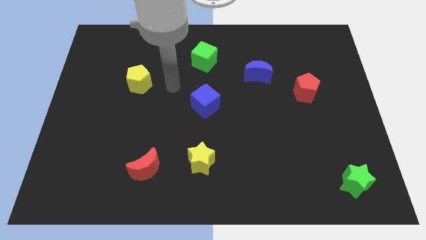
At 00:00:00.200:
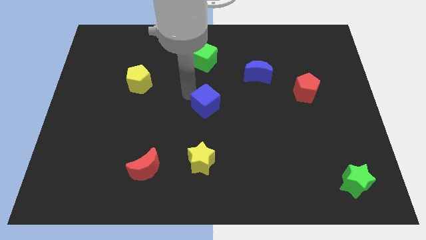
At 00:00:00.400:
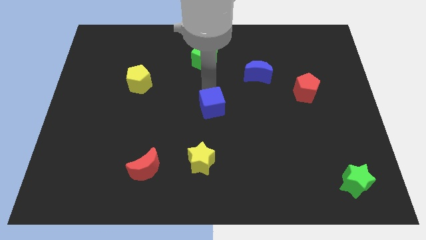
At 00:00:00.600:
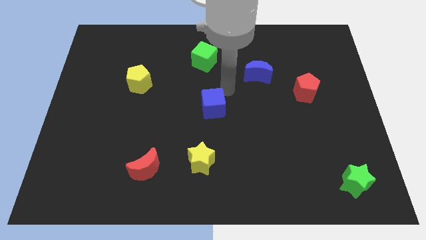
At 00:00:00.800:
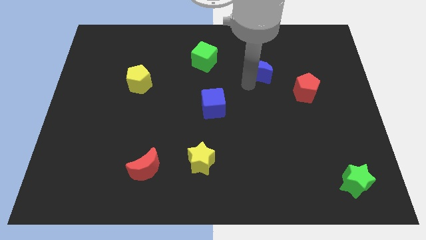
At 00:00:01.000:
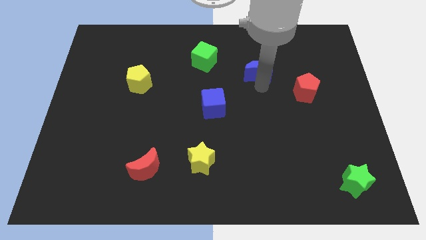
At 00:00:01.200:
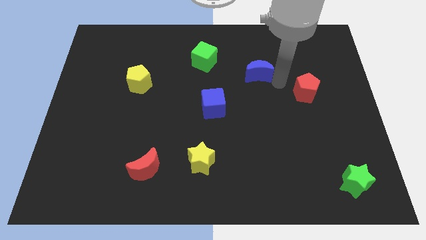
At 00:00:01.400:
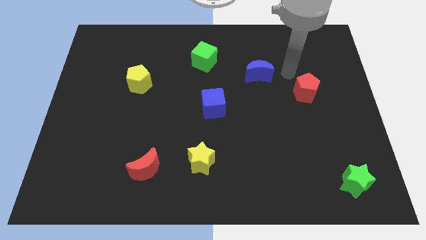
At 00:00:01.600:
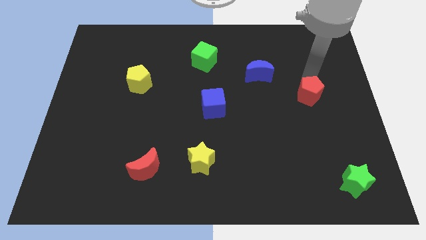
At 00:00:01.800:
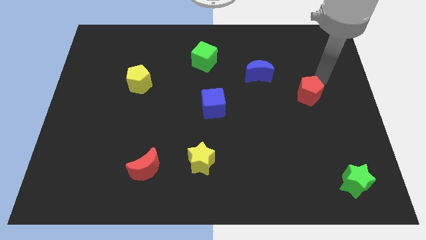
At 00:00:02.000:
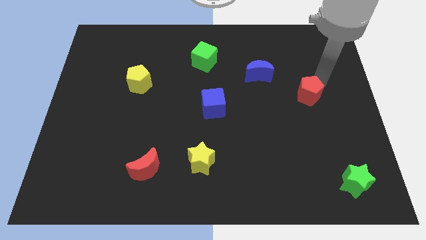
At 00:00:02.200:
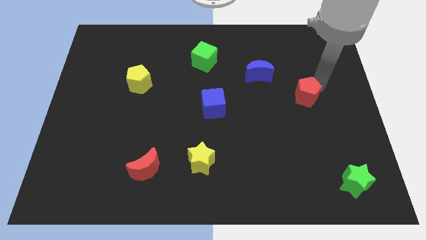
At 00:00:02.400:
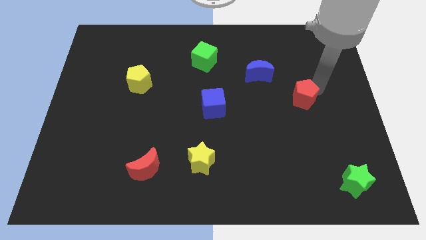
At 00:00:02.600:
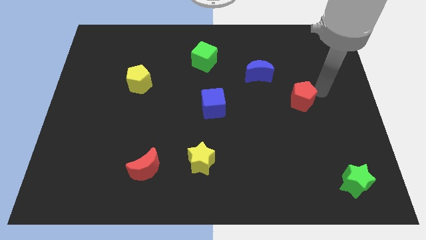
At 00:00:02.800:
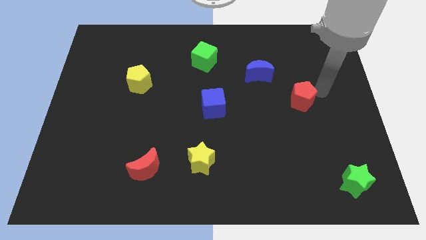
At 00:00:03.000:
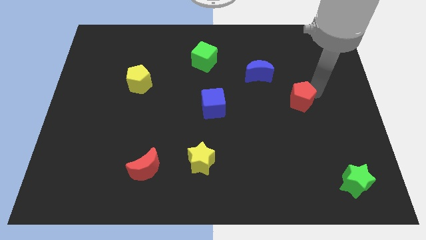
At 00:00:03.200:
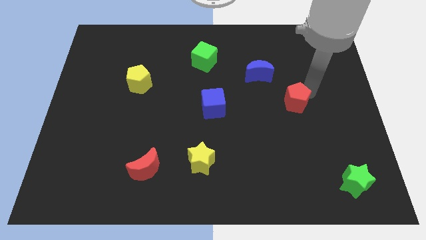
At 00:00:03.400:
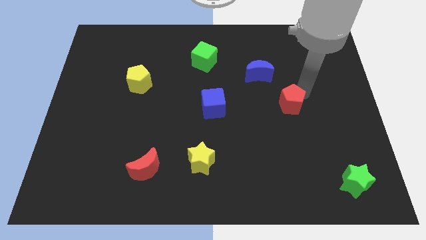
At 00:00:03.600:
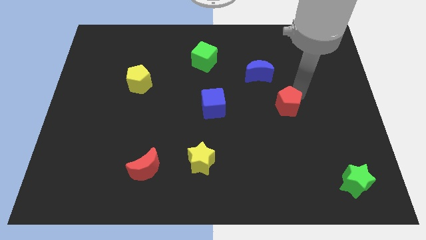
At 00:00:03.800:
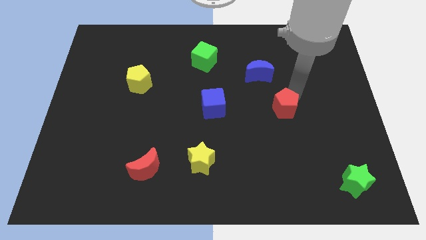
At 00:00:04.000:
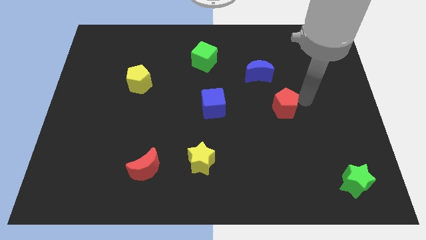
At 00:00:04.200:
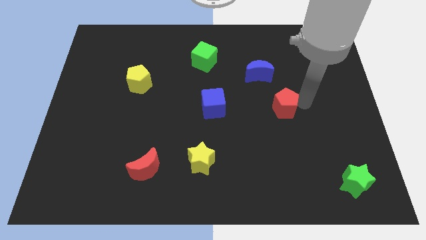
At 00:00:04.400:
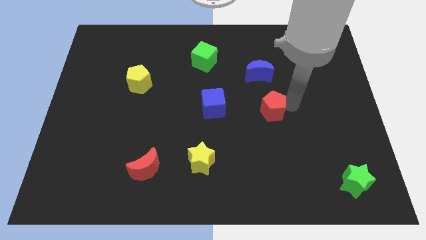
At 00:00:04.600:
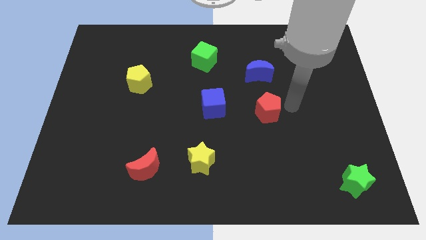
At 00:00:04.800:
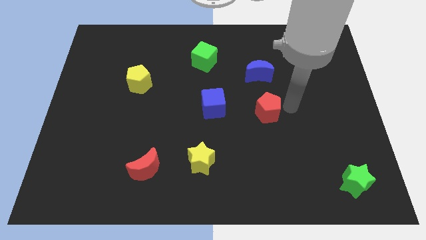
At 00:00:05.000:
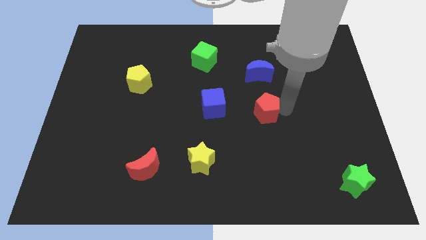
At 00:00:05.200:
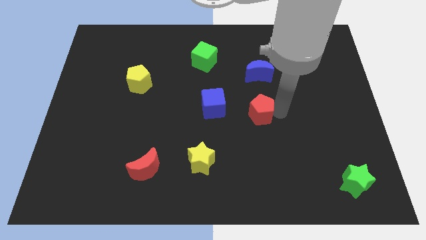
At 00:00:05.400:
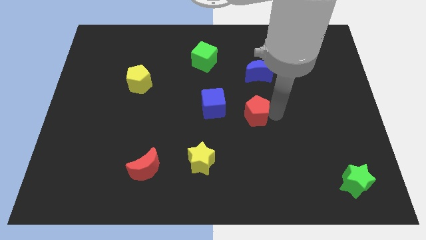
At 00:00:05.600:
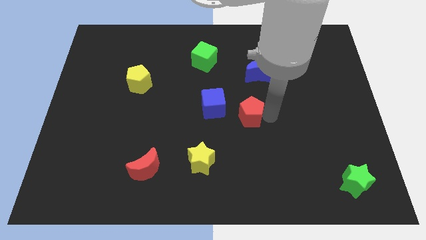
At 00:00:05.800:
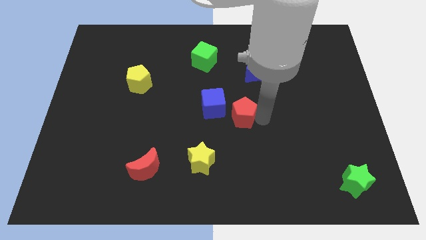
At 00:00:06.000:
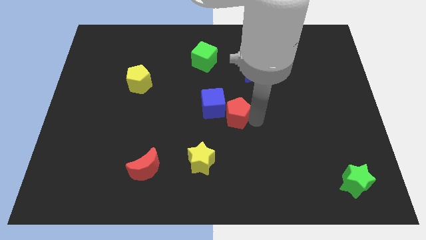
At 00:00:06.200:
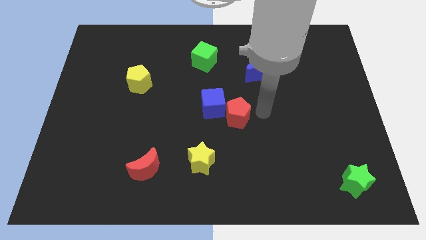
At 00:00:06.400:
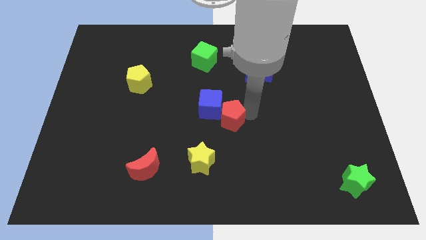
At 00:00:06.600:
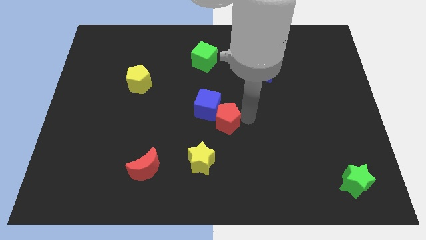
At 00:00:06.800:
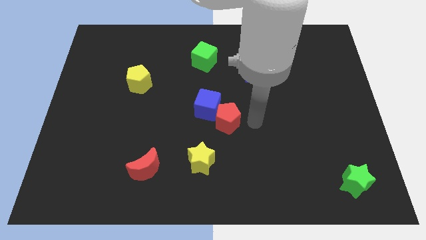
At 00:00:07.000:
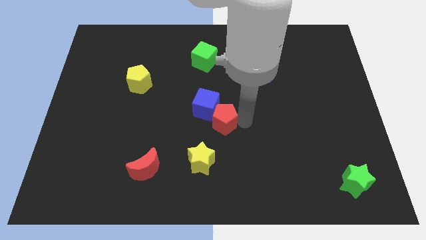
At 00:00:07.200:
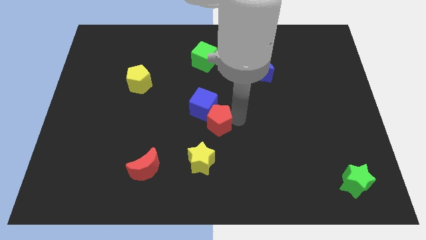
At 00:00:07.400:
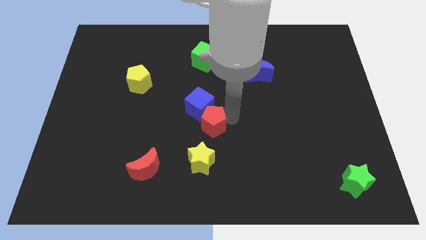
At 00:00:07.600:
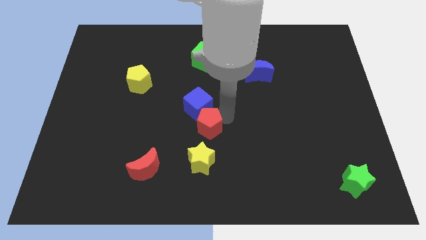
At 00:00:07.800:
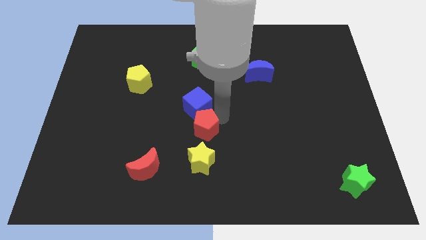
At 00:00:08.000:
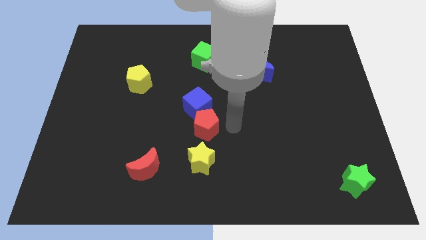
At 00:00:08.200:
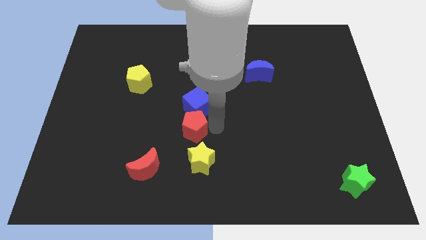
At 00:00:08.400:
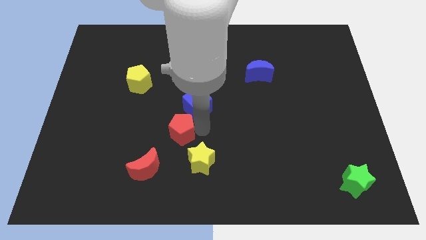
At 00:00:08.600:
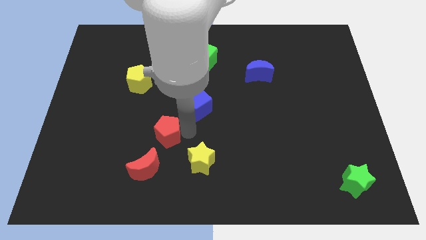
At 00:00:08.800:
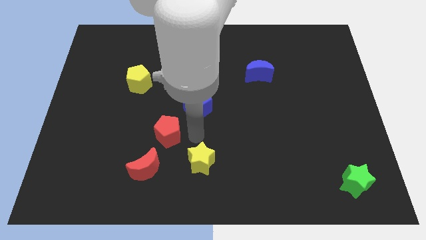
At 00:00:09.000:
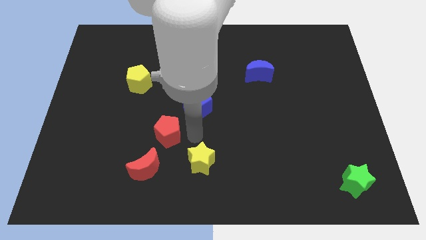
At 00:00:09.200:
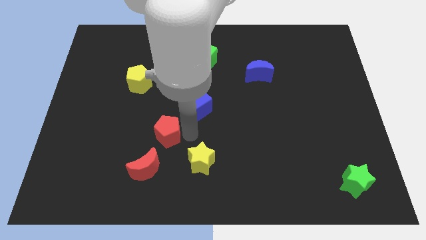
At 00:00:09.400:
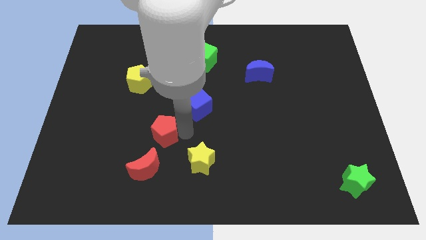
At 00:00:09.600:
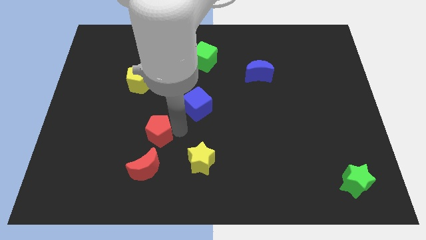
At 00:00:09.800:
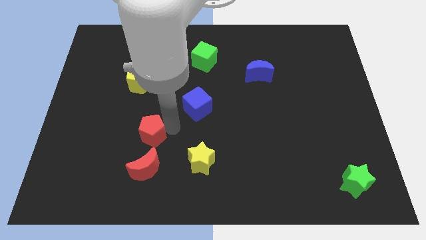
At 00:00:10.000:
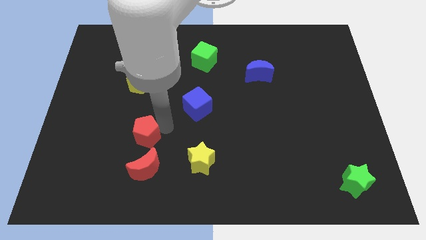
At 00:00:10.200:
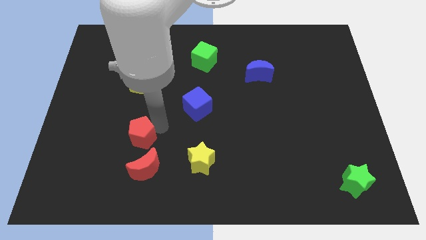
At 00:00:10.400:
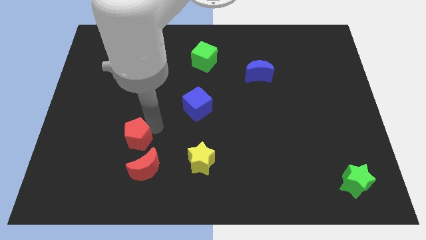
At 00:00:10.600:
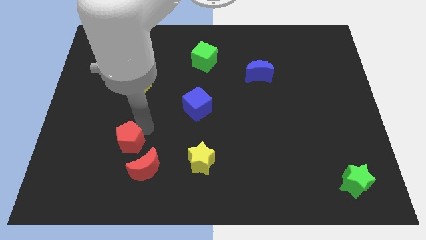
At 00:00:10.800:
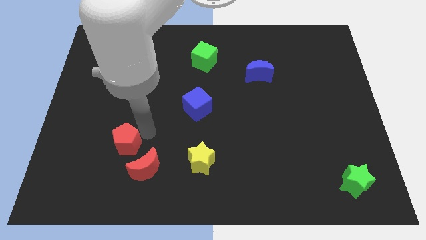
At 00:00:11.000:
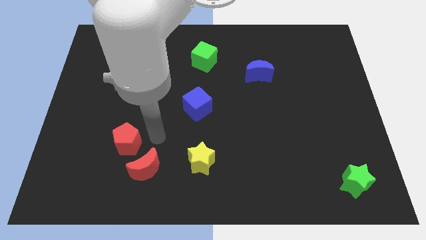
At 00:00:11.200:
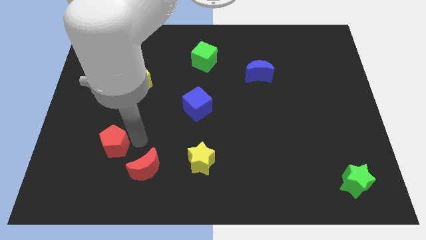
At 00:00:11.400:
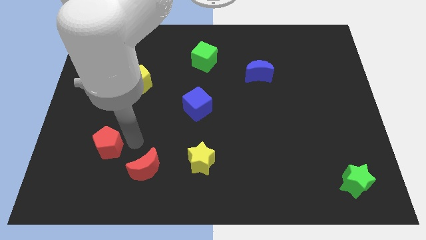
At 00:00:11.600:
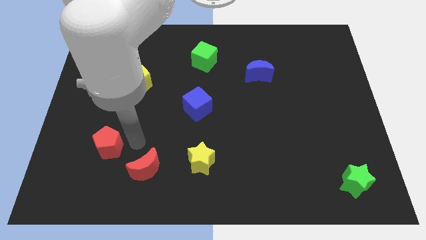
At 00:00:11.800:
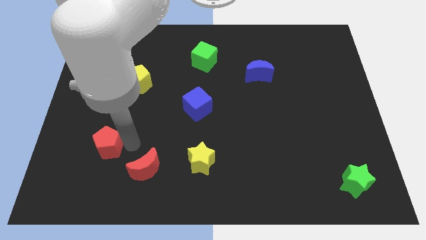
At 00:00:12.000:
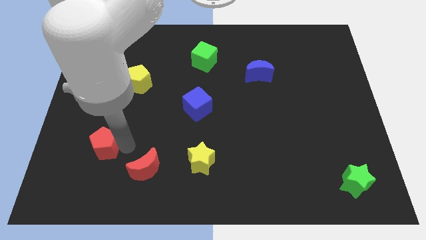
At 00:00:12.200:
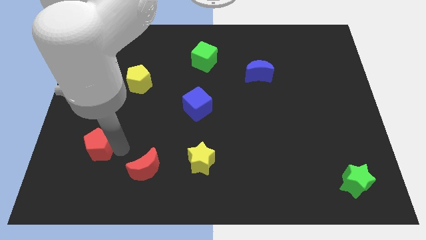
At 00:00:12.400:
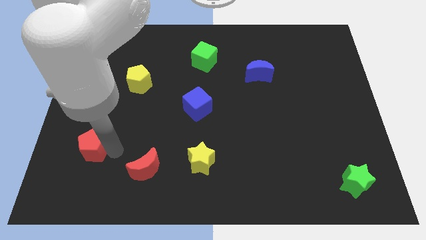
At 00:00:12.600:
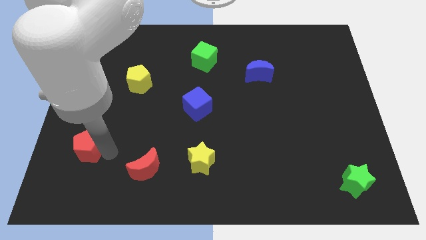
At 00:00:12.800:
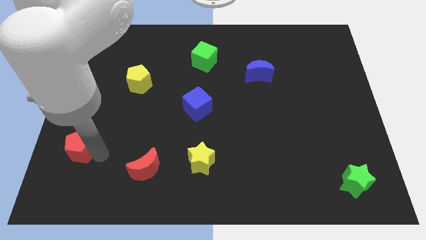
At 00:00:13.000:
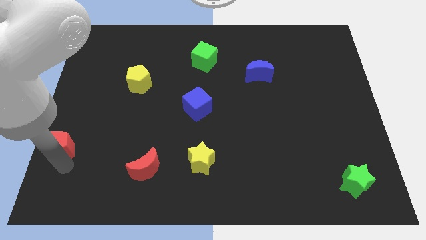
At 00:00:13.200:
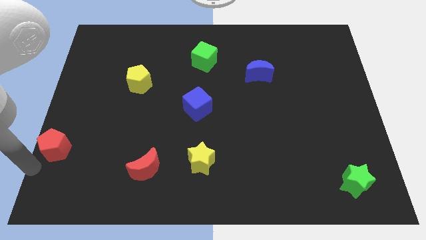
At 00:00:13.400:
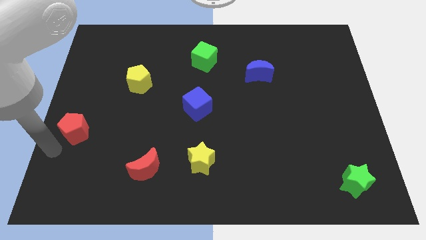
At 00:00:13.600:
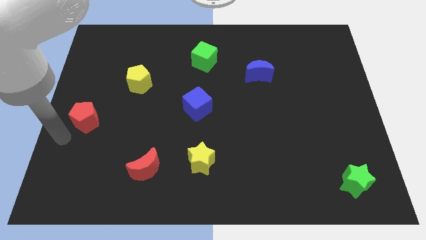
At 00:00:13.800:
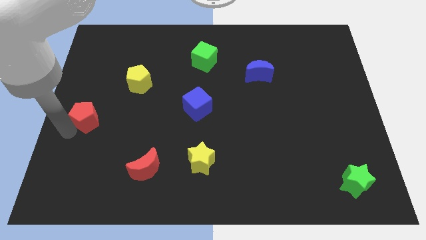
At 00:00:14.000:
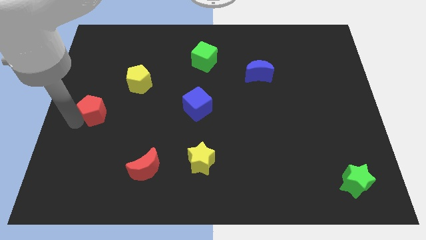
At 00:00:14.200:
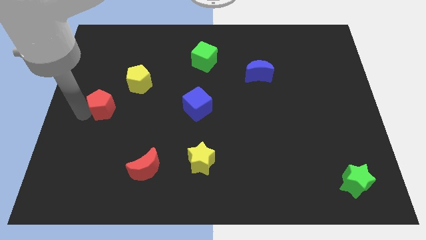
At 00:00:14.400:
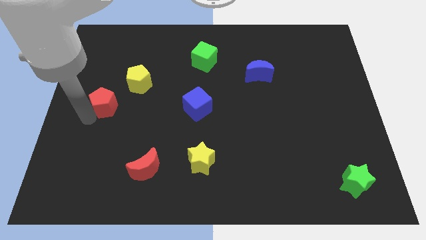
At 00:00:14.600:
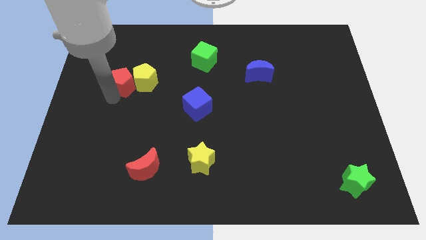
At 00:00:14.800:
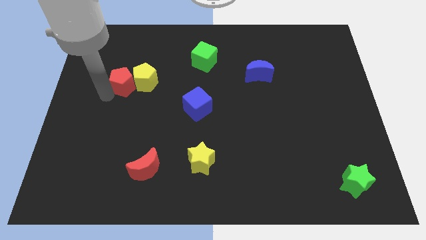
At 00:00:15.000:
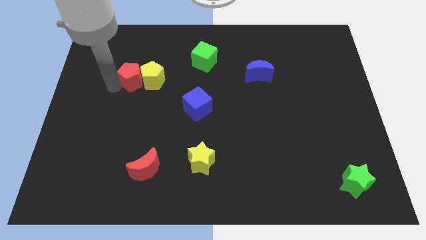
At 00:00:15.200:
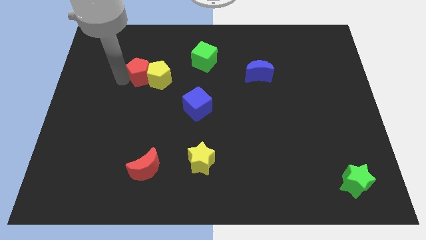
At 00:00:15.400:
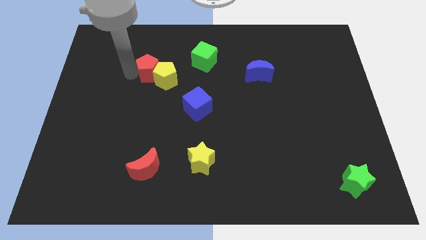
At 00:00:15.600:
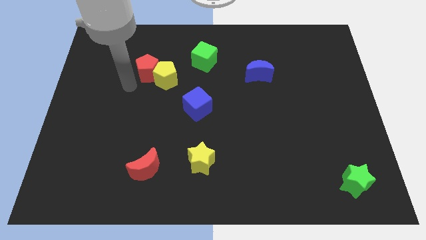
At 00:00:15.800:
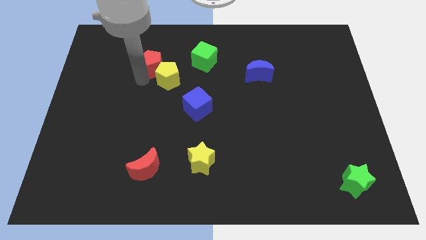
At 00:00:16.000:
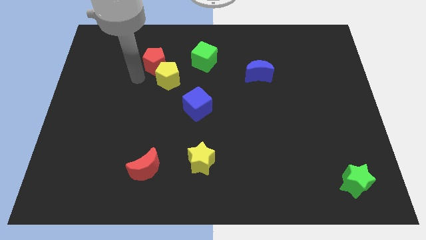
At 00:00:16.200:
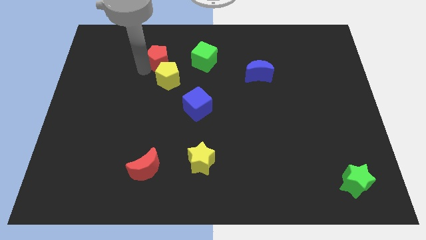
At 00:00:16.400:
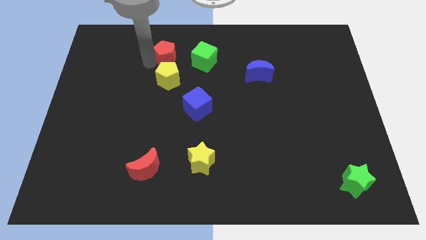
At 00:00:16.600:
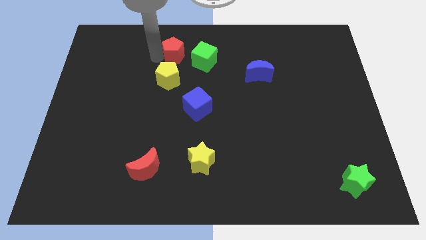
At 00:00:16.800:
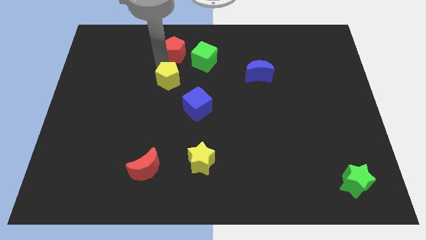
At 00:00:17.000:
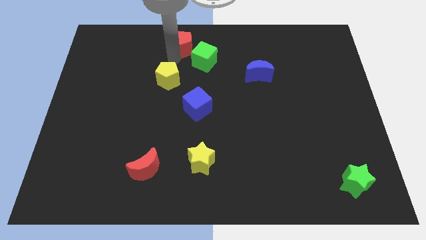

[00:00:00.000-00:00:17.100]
put the red pentagon to the towards your base
